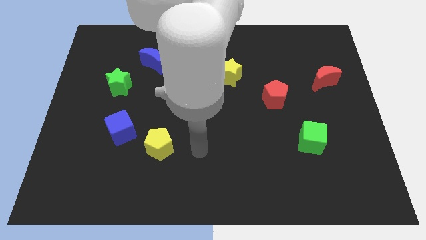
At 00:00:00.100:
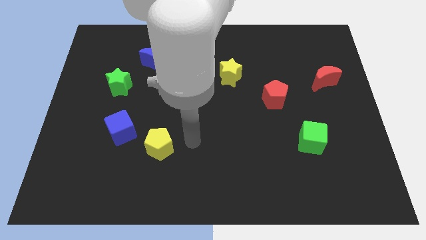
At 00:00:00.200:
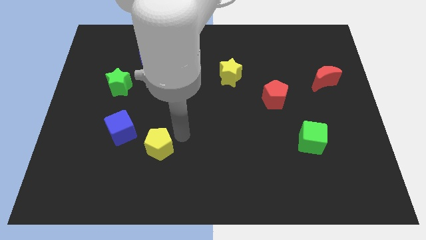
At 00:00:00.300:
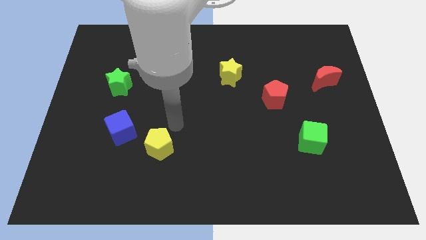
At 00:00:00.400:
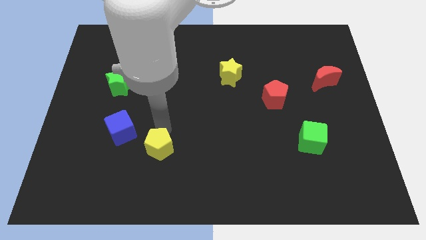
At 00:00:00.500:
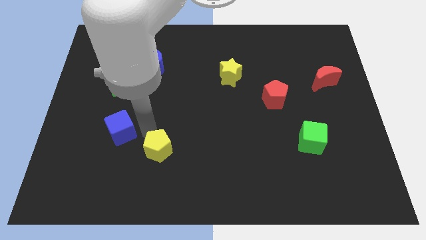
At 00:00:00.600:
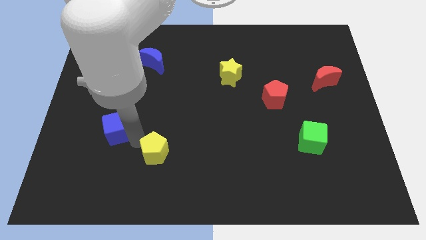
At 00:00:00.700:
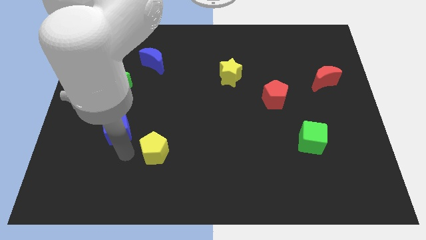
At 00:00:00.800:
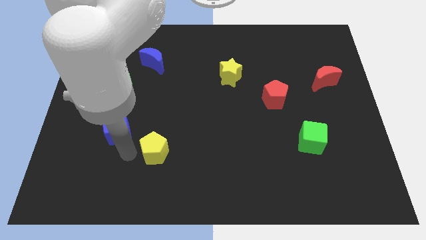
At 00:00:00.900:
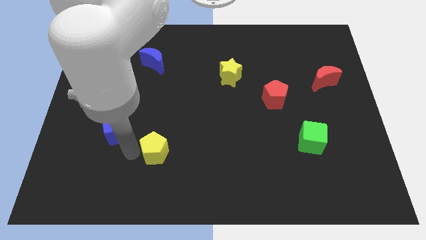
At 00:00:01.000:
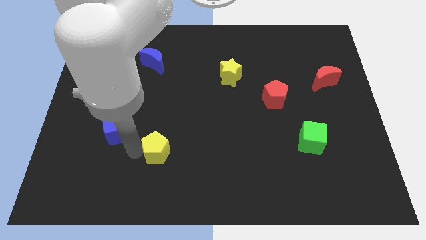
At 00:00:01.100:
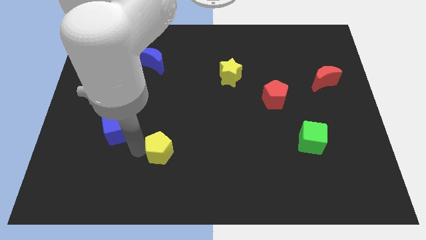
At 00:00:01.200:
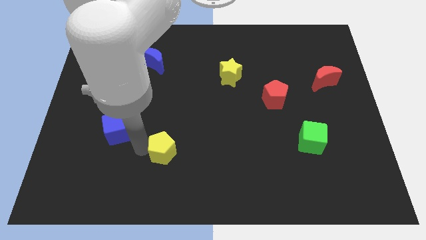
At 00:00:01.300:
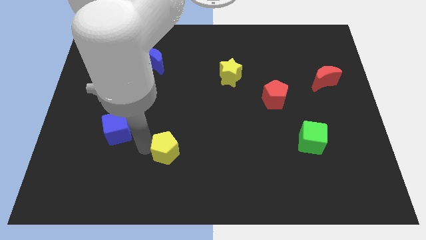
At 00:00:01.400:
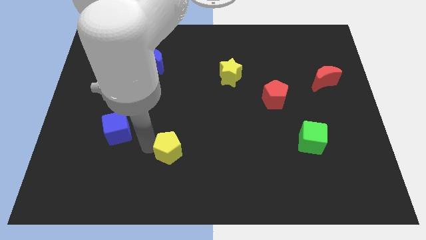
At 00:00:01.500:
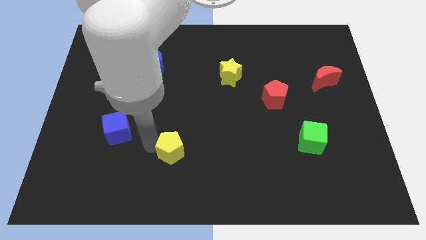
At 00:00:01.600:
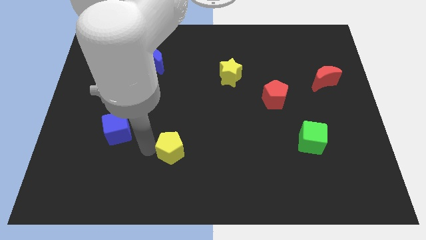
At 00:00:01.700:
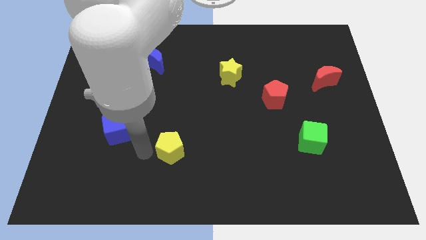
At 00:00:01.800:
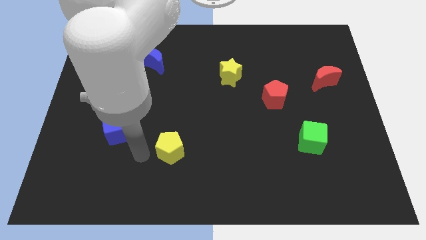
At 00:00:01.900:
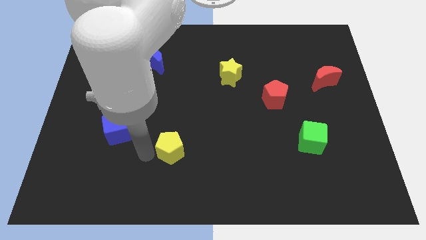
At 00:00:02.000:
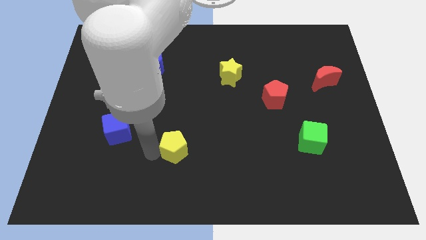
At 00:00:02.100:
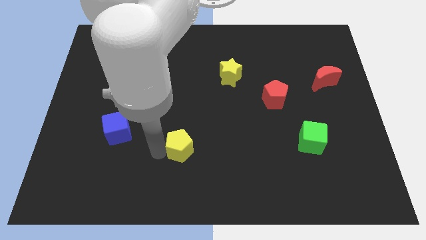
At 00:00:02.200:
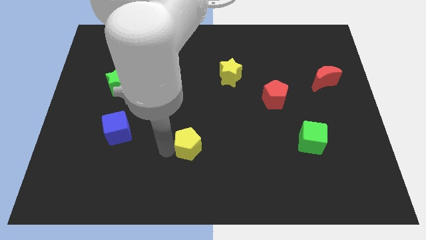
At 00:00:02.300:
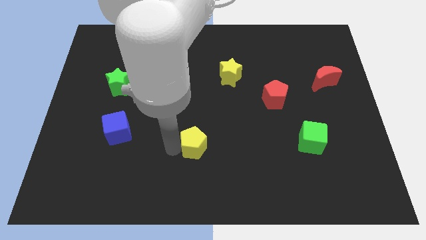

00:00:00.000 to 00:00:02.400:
move the yellow pentagon to the right a little bit

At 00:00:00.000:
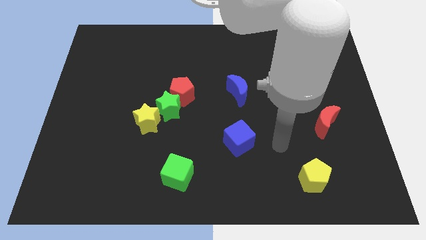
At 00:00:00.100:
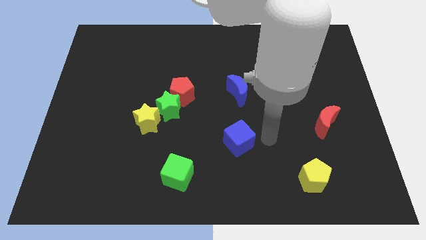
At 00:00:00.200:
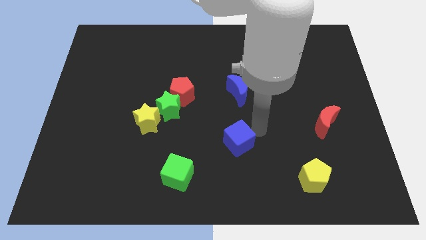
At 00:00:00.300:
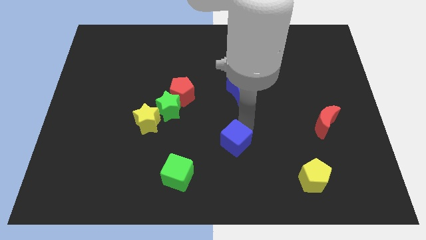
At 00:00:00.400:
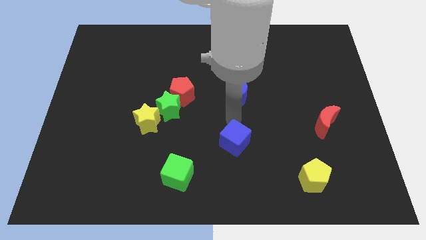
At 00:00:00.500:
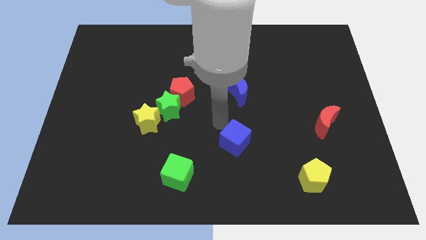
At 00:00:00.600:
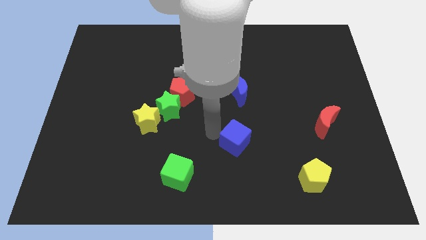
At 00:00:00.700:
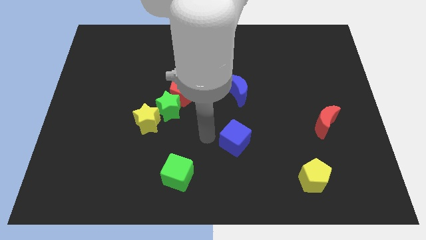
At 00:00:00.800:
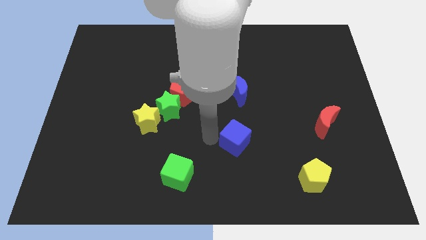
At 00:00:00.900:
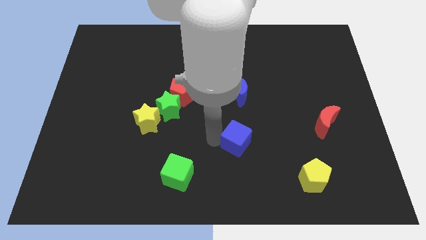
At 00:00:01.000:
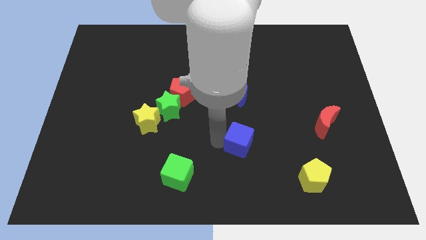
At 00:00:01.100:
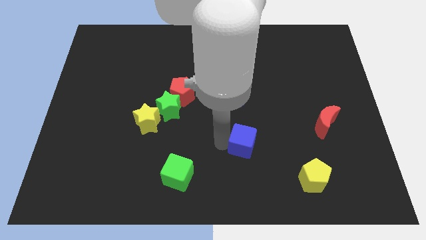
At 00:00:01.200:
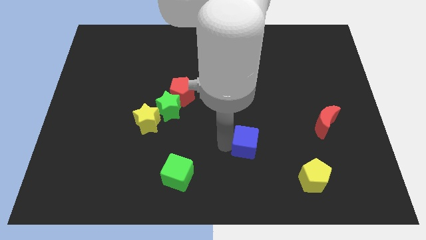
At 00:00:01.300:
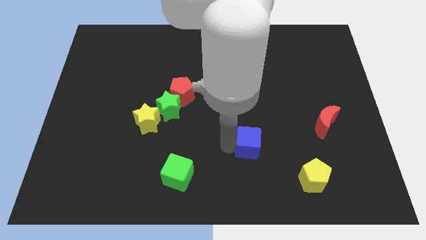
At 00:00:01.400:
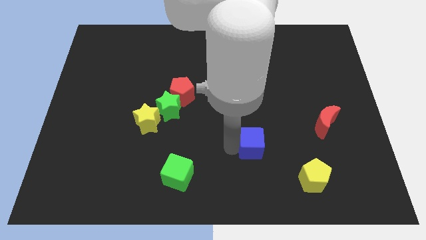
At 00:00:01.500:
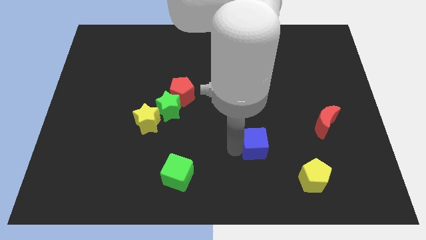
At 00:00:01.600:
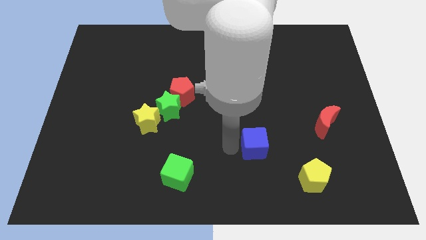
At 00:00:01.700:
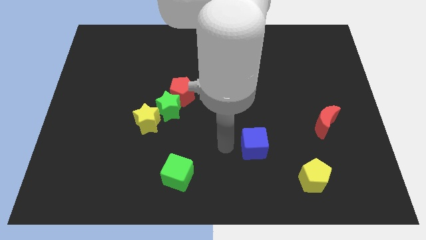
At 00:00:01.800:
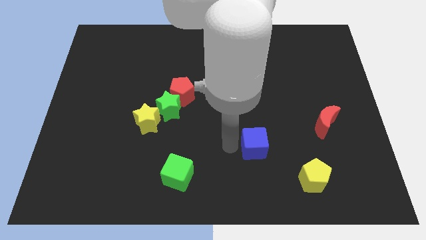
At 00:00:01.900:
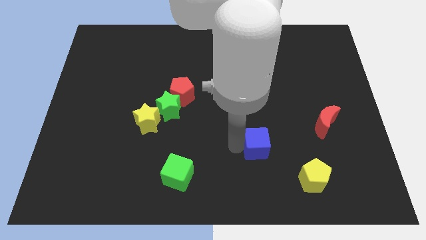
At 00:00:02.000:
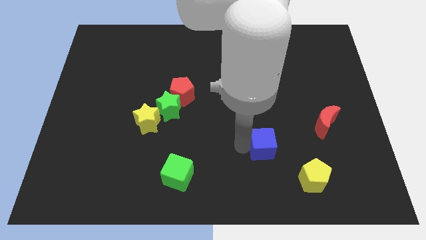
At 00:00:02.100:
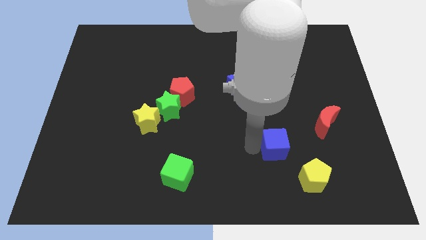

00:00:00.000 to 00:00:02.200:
slide the blue cube a little right

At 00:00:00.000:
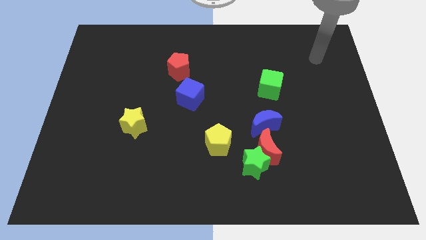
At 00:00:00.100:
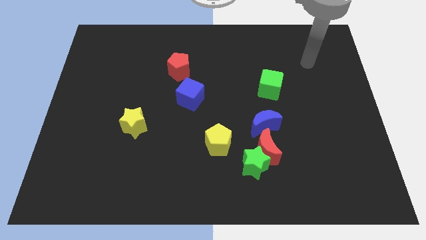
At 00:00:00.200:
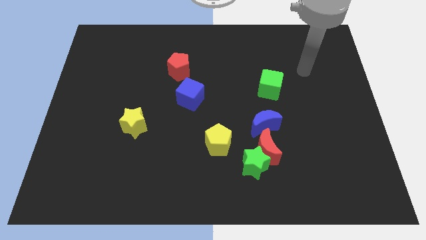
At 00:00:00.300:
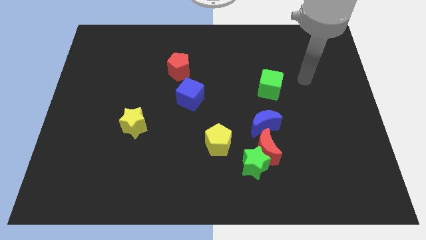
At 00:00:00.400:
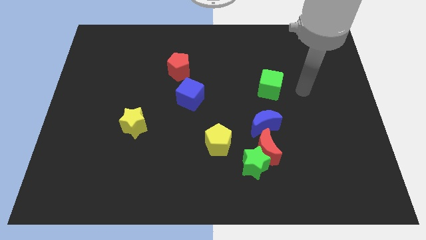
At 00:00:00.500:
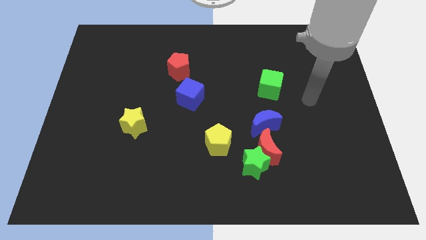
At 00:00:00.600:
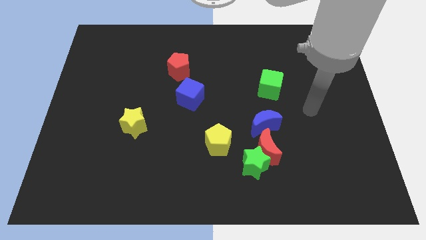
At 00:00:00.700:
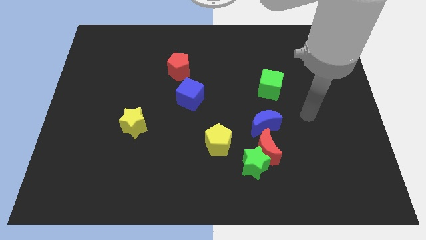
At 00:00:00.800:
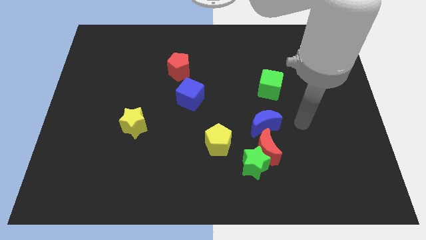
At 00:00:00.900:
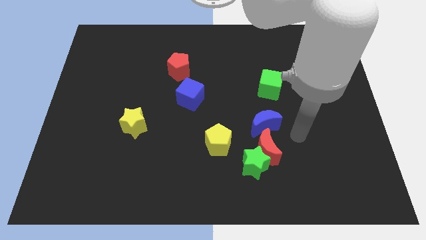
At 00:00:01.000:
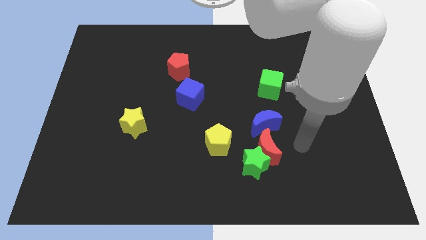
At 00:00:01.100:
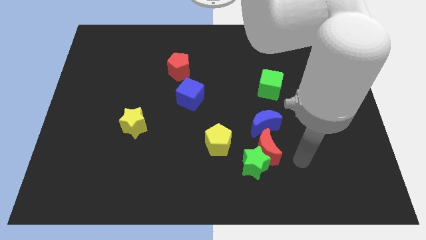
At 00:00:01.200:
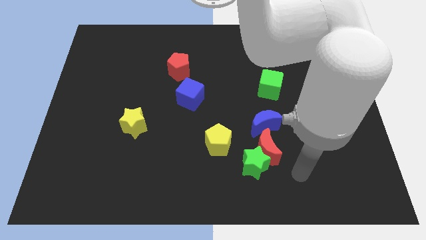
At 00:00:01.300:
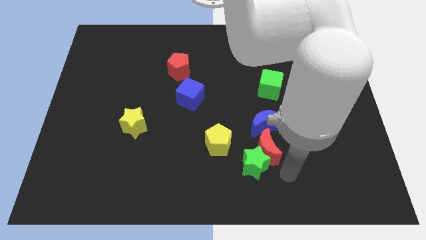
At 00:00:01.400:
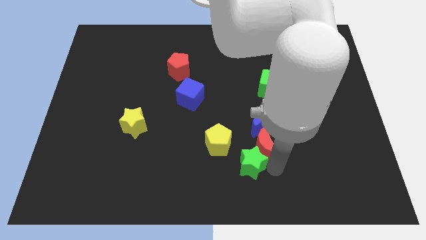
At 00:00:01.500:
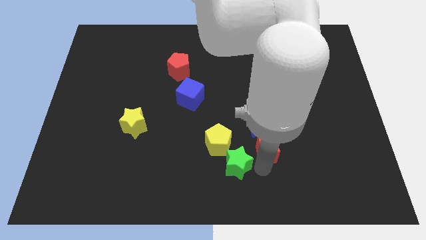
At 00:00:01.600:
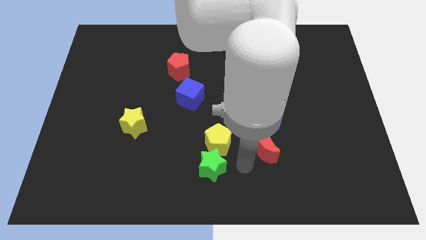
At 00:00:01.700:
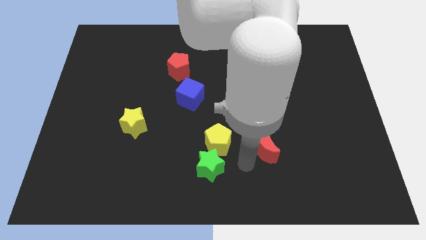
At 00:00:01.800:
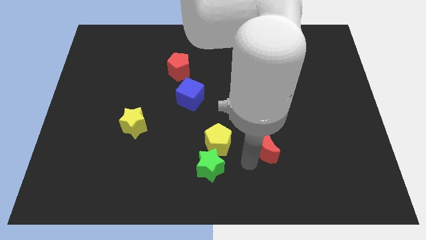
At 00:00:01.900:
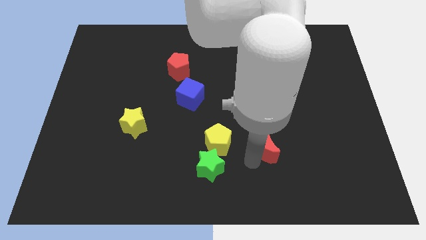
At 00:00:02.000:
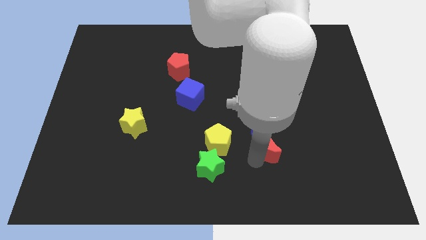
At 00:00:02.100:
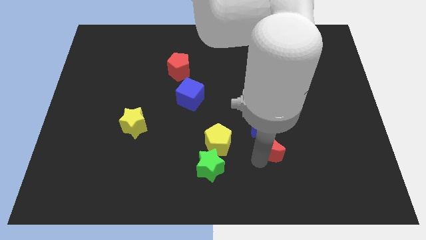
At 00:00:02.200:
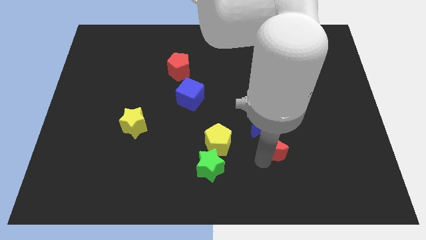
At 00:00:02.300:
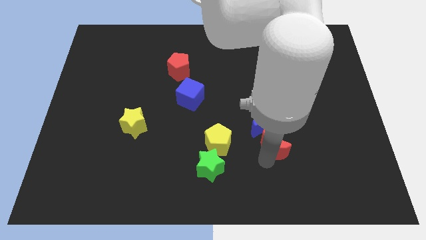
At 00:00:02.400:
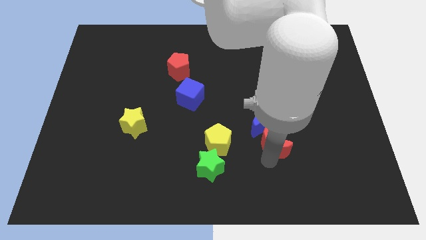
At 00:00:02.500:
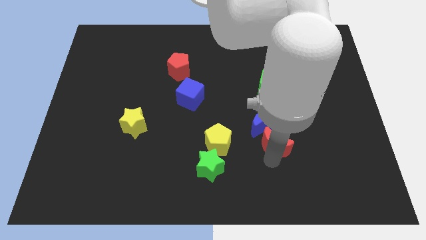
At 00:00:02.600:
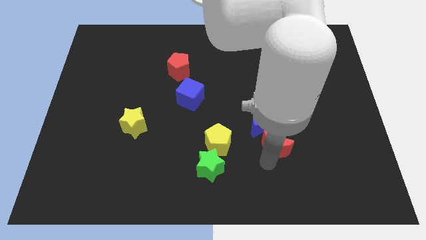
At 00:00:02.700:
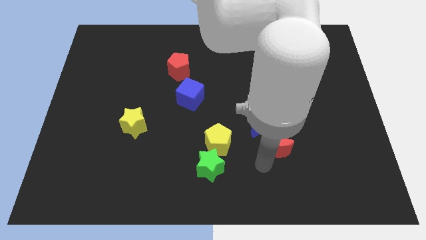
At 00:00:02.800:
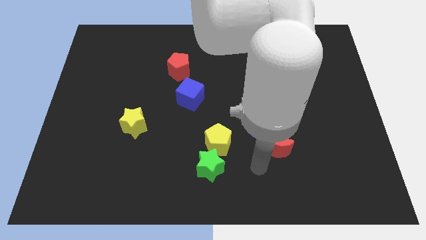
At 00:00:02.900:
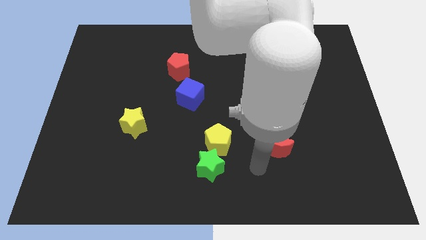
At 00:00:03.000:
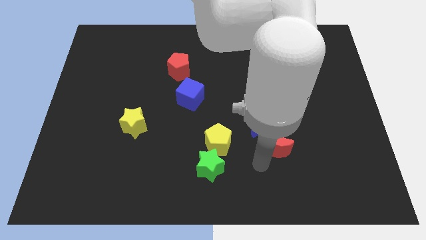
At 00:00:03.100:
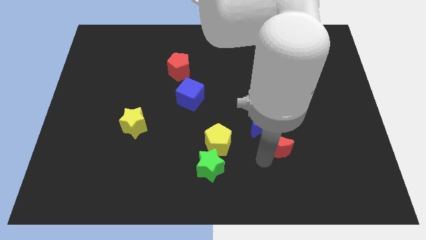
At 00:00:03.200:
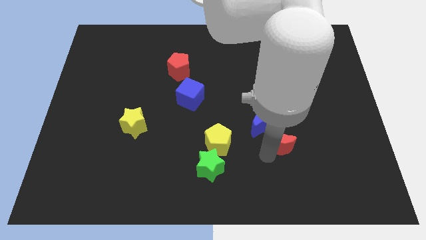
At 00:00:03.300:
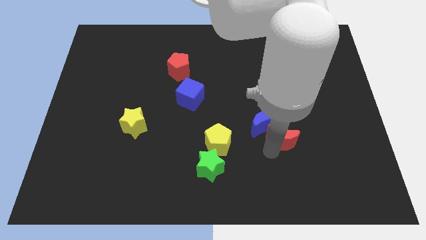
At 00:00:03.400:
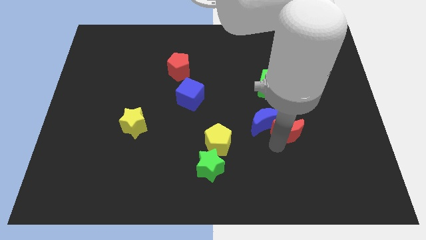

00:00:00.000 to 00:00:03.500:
slide the red moon a little diagonally upwards and to the right
